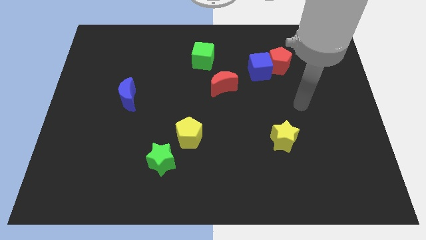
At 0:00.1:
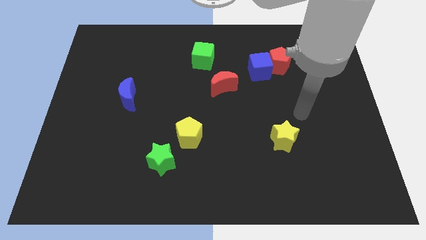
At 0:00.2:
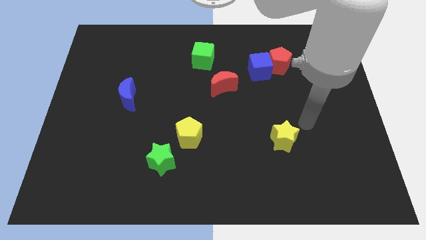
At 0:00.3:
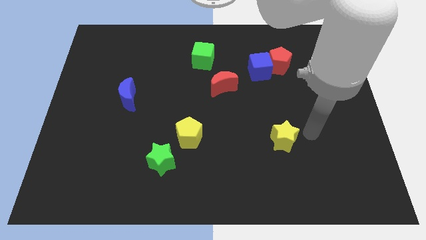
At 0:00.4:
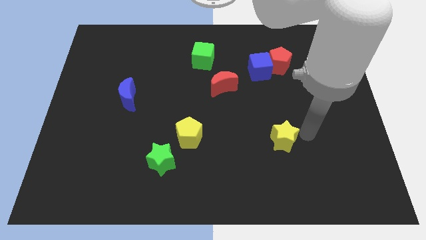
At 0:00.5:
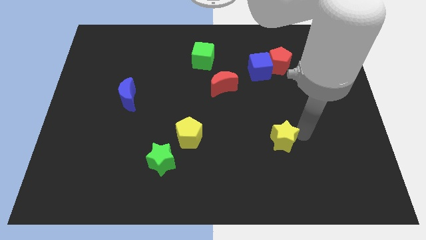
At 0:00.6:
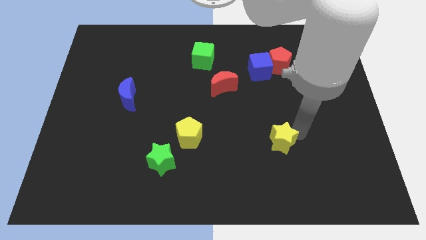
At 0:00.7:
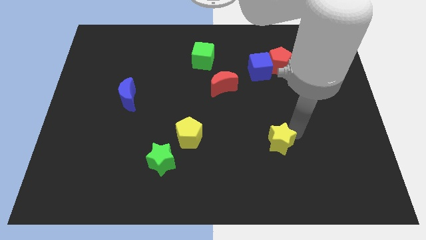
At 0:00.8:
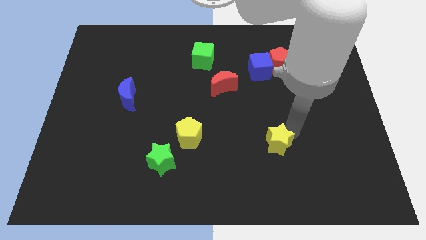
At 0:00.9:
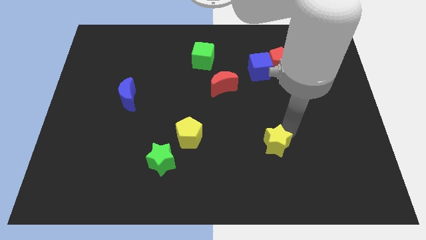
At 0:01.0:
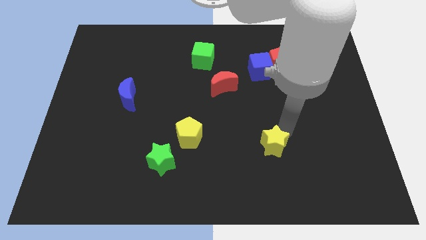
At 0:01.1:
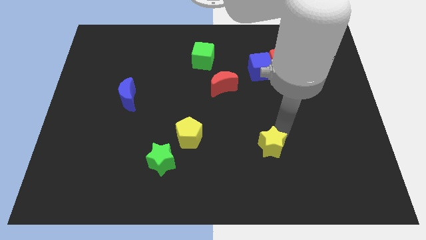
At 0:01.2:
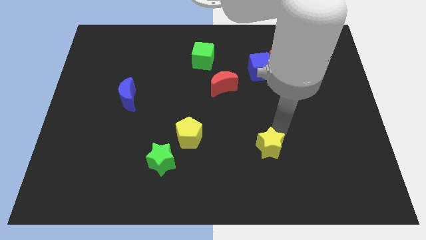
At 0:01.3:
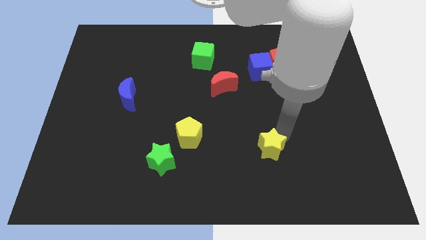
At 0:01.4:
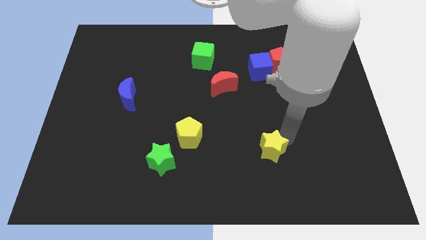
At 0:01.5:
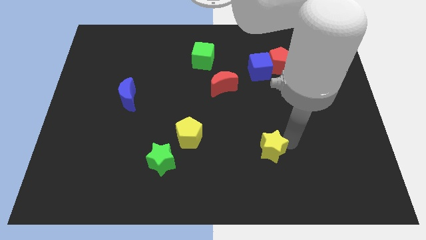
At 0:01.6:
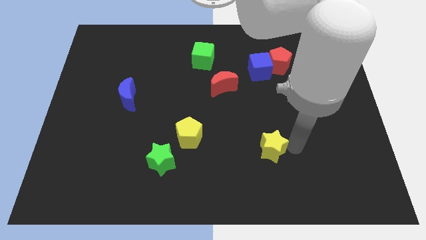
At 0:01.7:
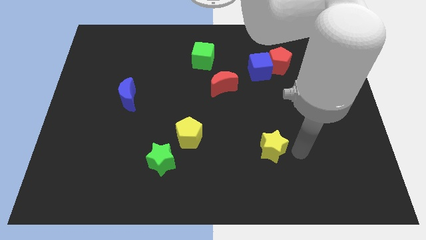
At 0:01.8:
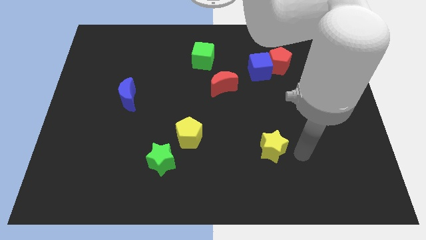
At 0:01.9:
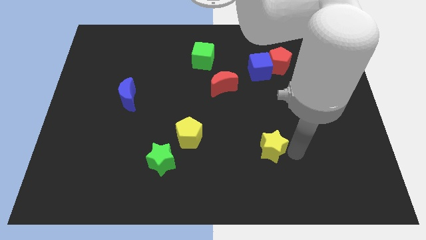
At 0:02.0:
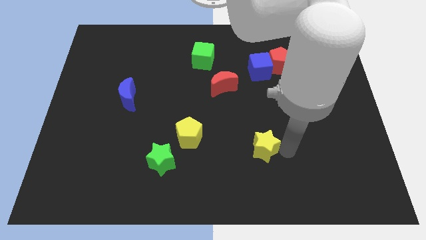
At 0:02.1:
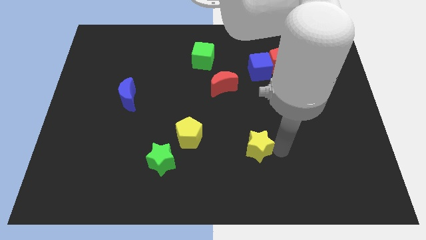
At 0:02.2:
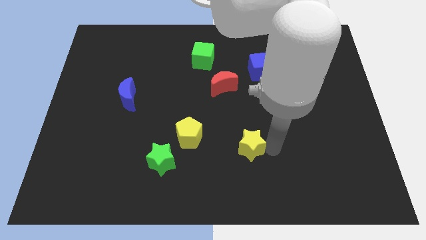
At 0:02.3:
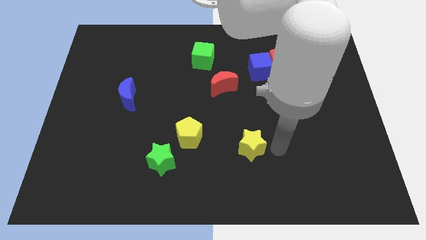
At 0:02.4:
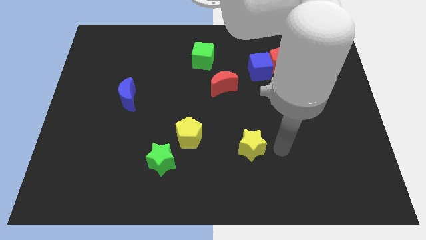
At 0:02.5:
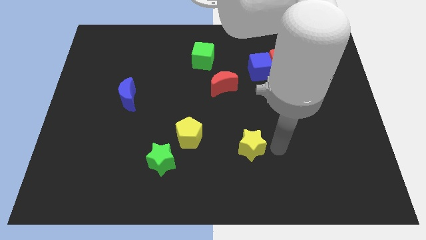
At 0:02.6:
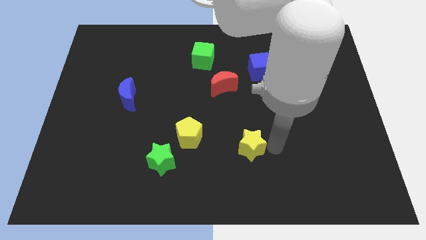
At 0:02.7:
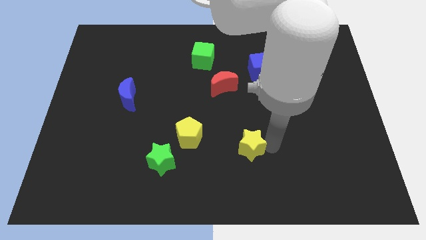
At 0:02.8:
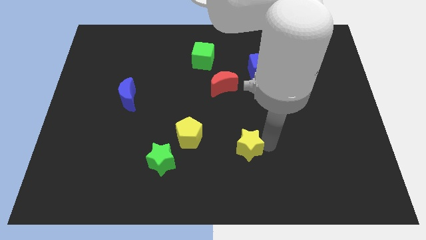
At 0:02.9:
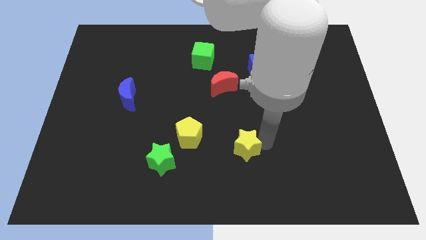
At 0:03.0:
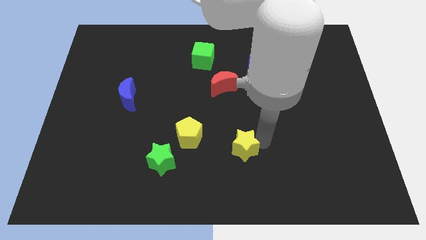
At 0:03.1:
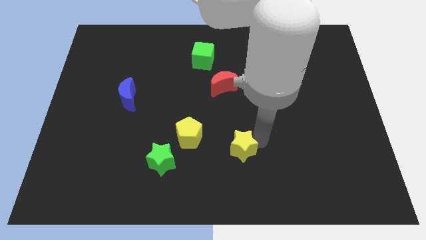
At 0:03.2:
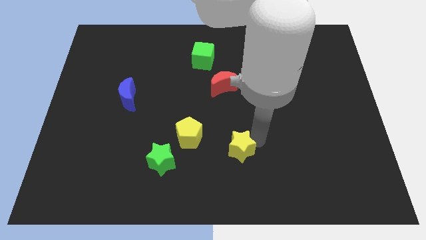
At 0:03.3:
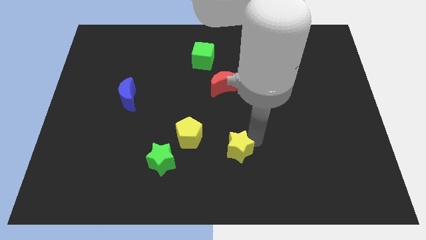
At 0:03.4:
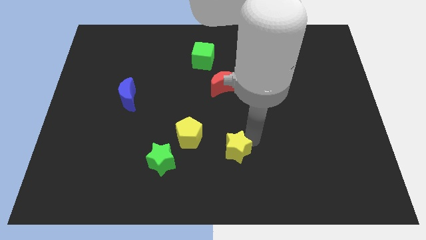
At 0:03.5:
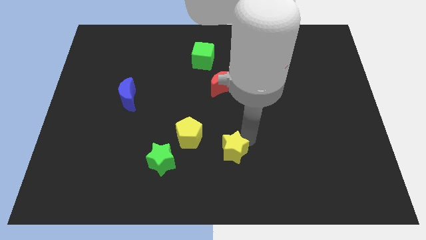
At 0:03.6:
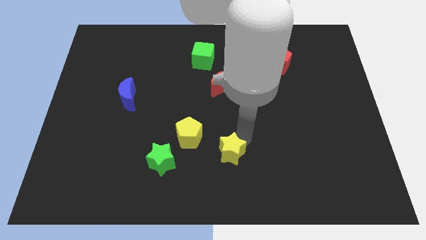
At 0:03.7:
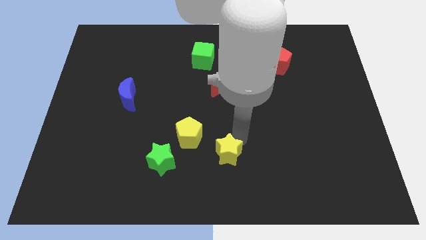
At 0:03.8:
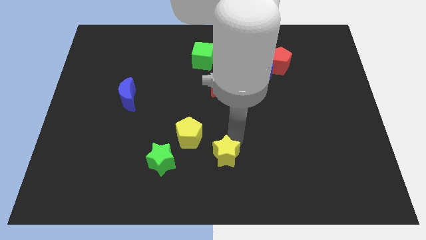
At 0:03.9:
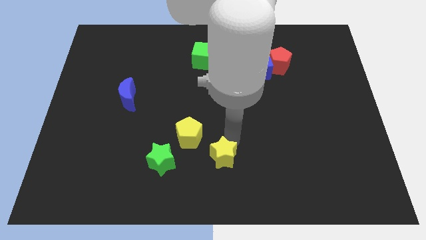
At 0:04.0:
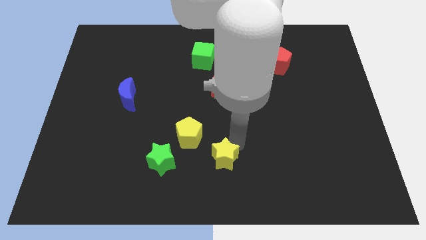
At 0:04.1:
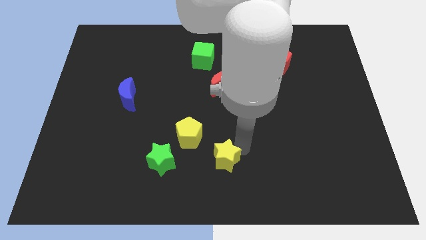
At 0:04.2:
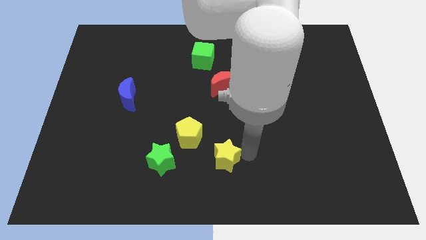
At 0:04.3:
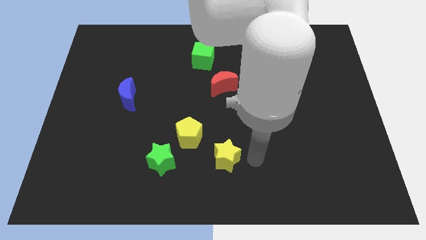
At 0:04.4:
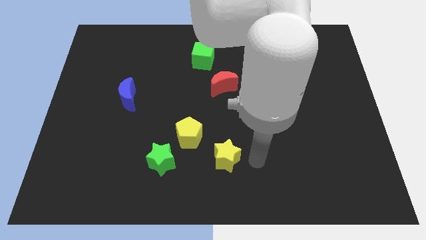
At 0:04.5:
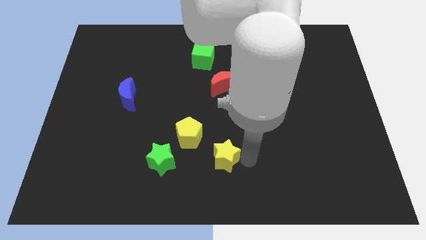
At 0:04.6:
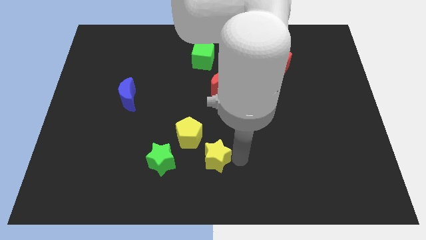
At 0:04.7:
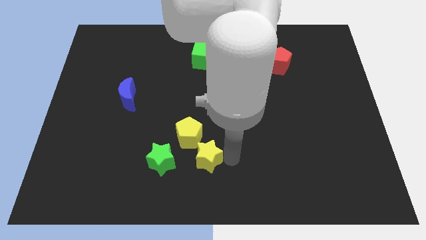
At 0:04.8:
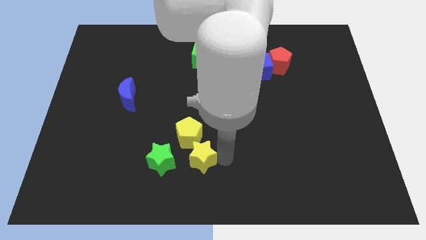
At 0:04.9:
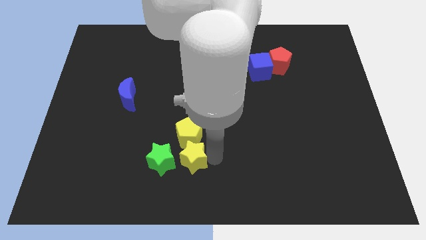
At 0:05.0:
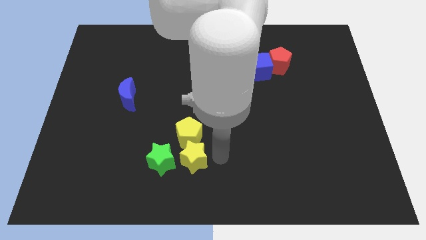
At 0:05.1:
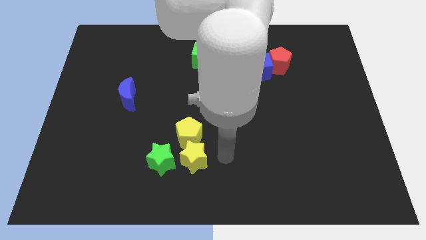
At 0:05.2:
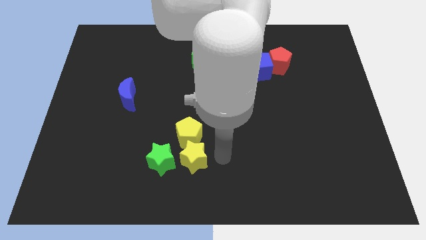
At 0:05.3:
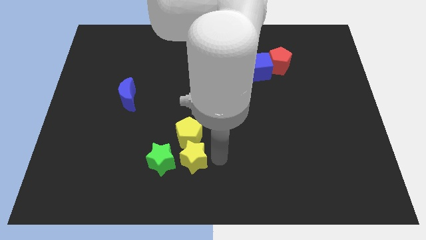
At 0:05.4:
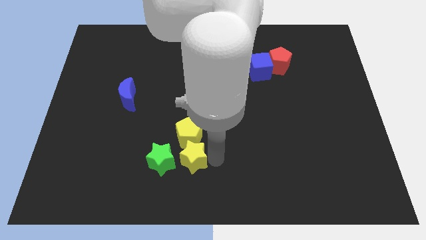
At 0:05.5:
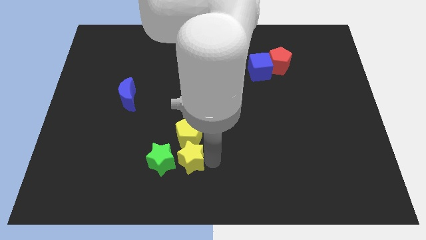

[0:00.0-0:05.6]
move the yellow star close to the green star
